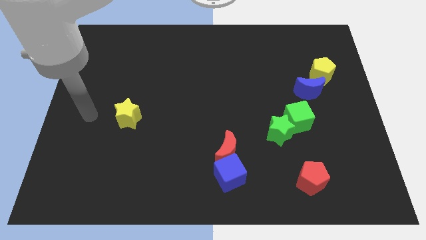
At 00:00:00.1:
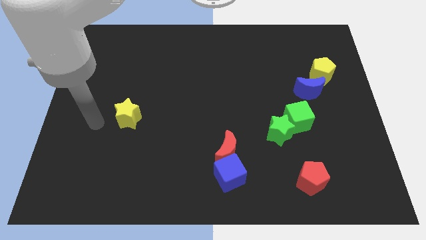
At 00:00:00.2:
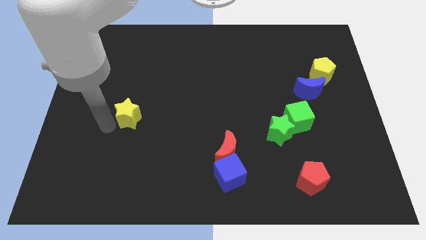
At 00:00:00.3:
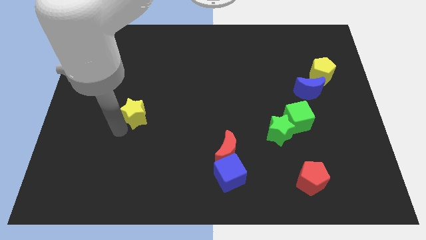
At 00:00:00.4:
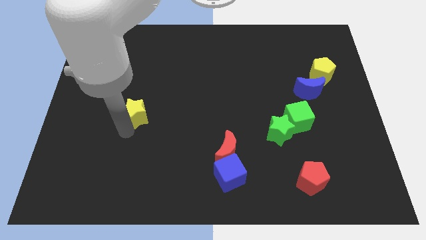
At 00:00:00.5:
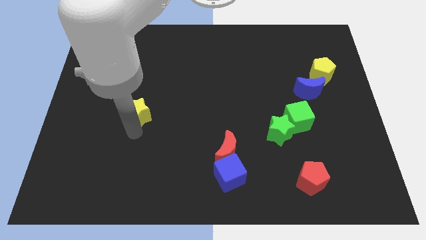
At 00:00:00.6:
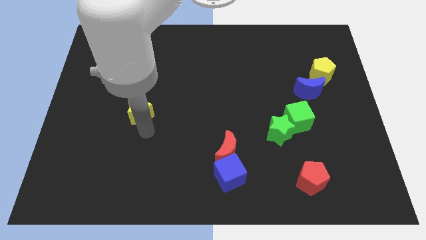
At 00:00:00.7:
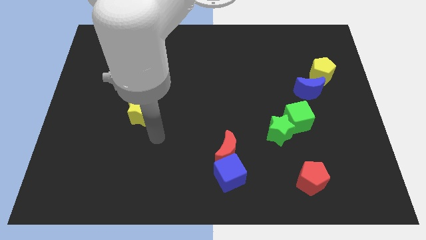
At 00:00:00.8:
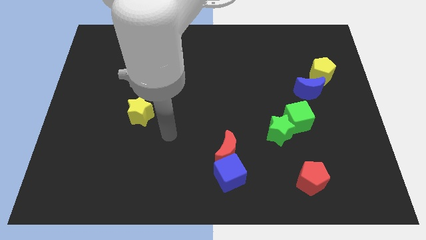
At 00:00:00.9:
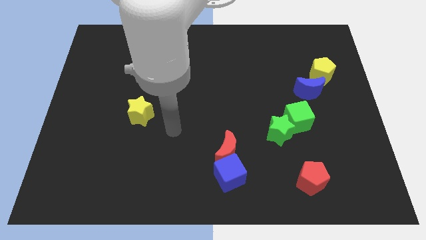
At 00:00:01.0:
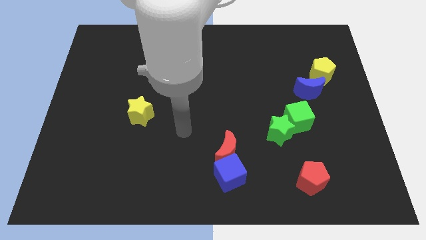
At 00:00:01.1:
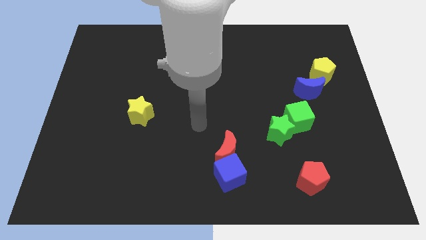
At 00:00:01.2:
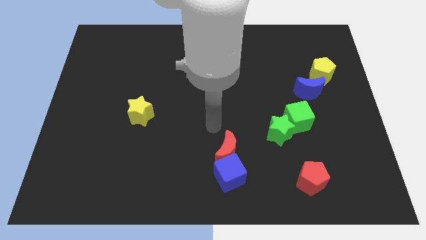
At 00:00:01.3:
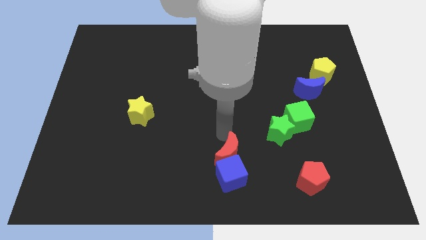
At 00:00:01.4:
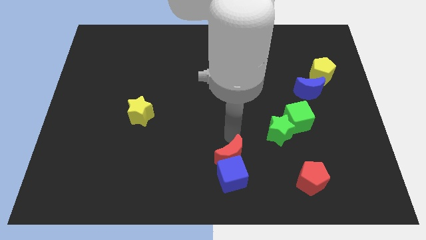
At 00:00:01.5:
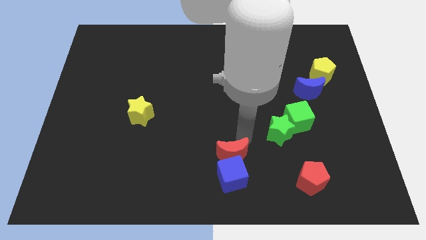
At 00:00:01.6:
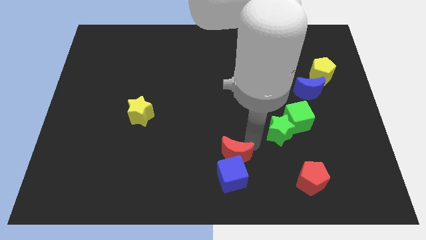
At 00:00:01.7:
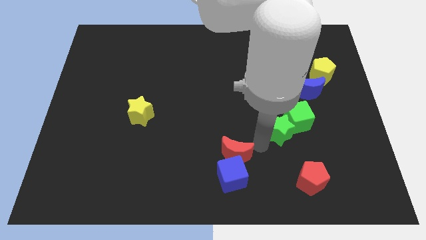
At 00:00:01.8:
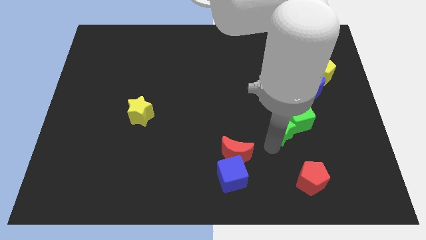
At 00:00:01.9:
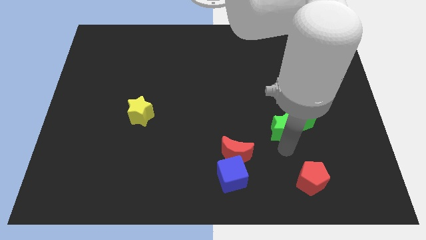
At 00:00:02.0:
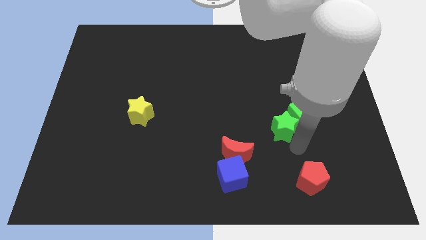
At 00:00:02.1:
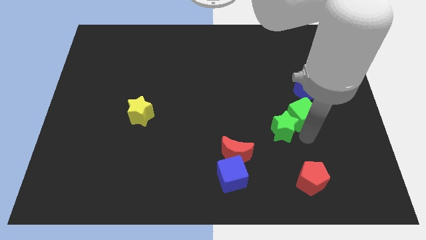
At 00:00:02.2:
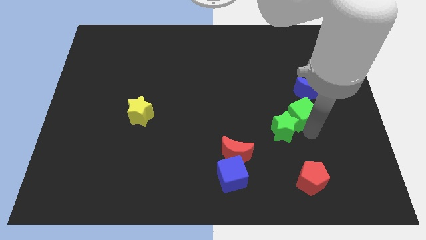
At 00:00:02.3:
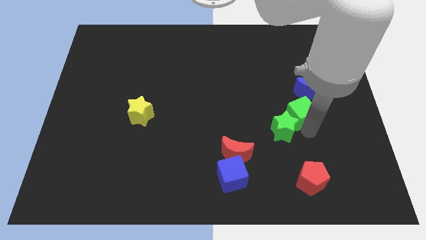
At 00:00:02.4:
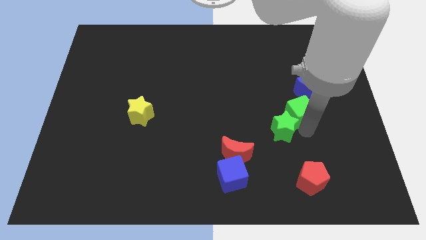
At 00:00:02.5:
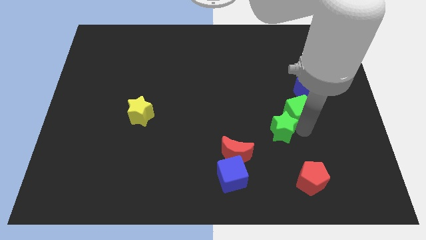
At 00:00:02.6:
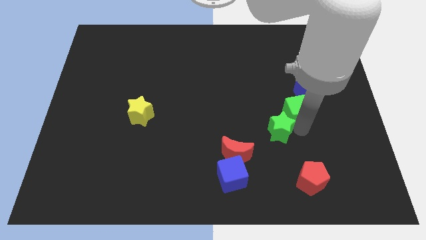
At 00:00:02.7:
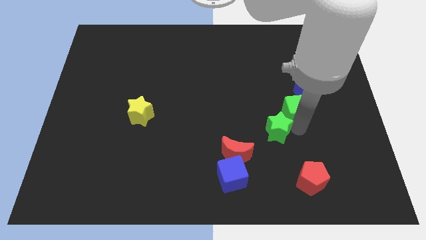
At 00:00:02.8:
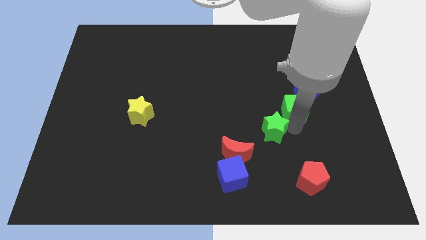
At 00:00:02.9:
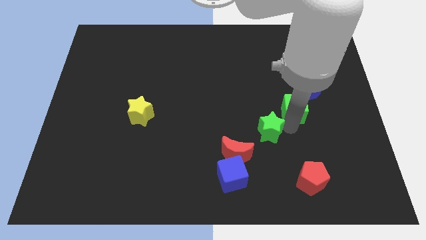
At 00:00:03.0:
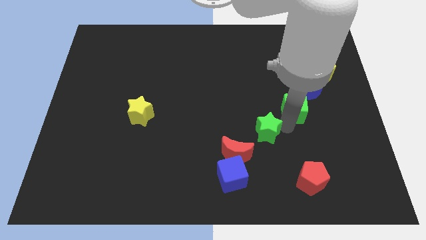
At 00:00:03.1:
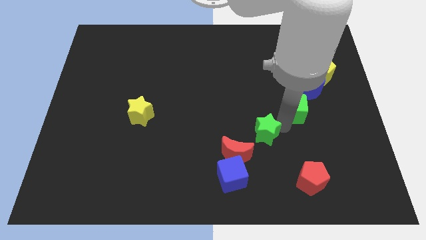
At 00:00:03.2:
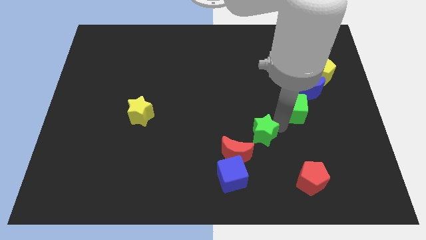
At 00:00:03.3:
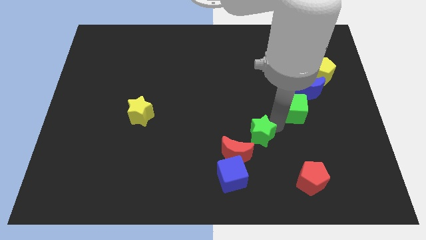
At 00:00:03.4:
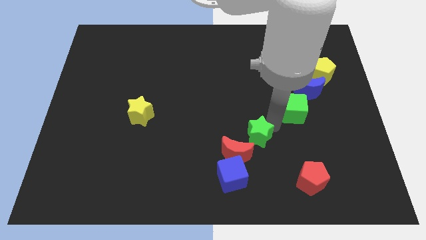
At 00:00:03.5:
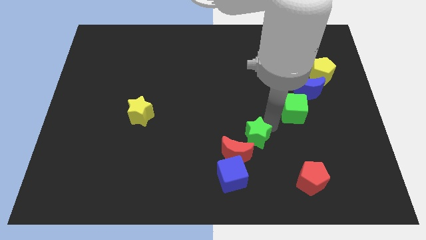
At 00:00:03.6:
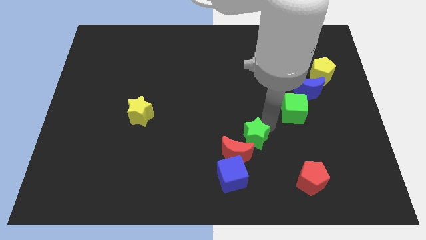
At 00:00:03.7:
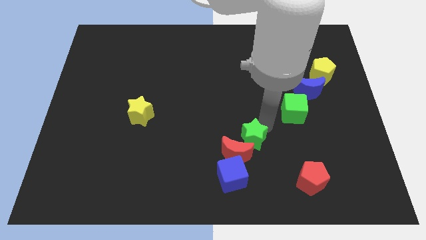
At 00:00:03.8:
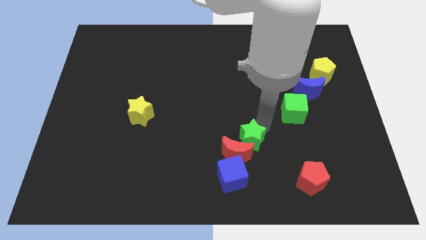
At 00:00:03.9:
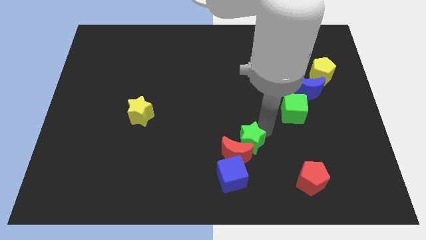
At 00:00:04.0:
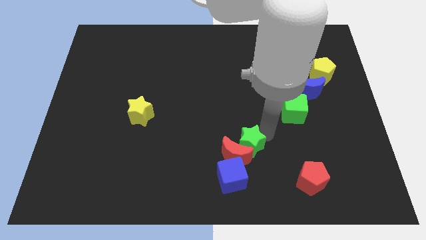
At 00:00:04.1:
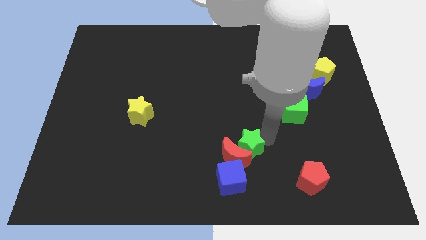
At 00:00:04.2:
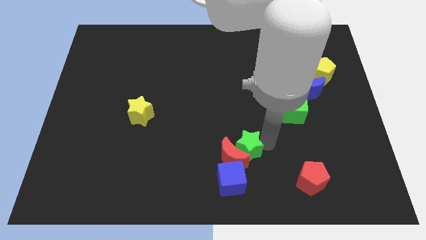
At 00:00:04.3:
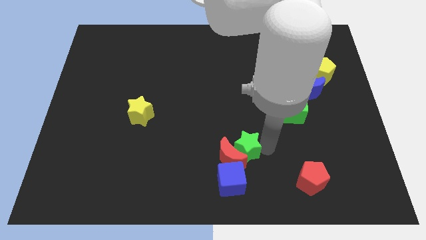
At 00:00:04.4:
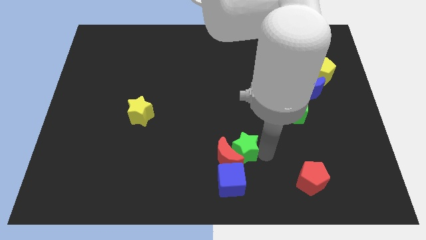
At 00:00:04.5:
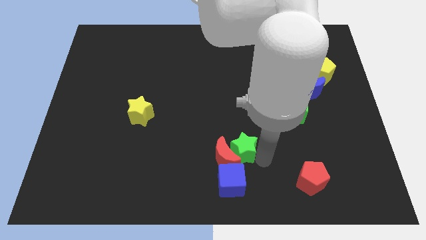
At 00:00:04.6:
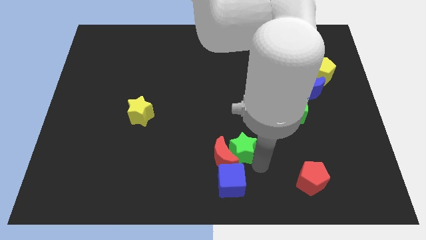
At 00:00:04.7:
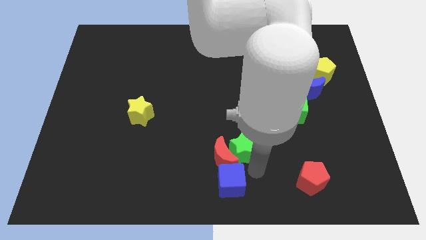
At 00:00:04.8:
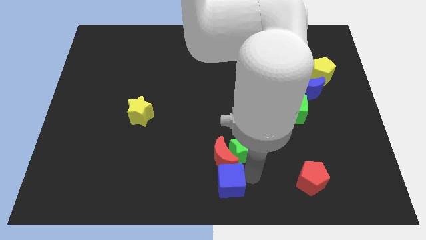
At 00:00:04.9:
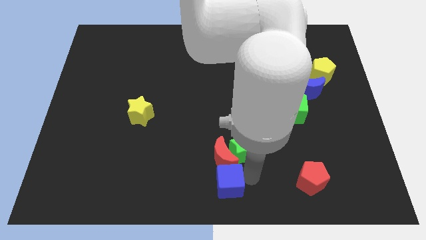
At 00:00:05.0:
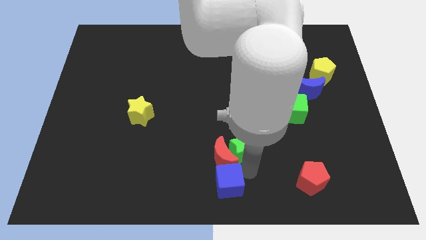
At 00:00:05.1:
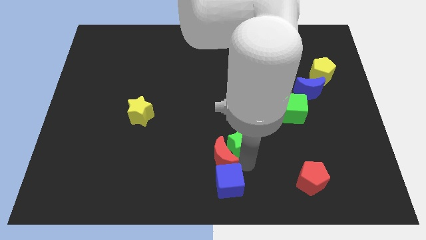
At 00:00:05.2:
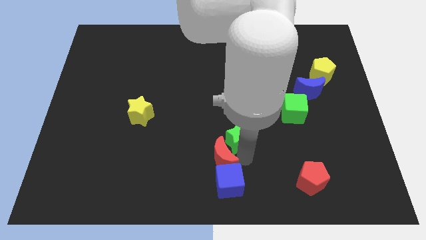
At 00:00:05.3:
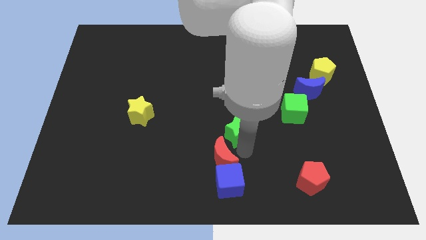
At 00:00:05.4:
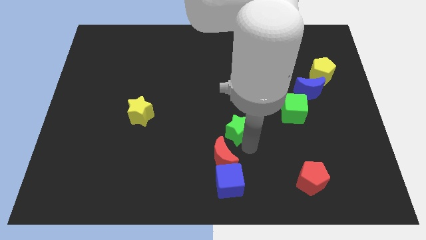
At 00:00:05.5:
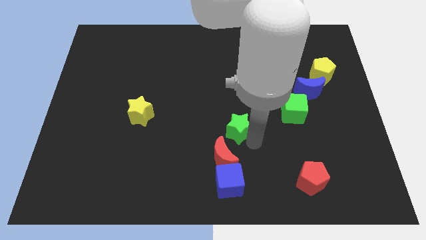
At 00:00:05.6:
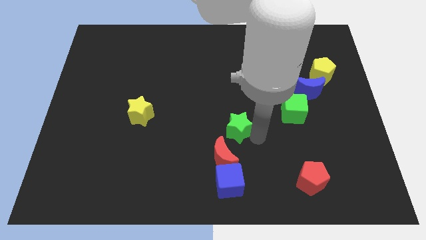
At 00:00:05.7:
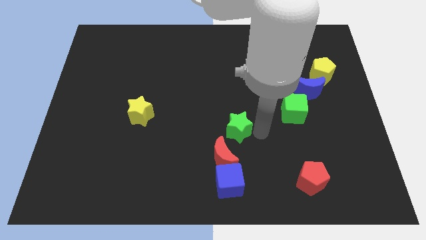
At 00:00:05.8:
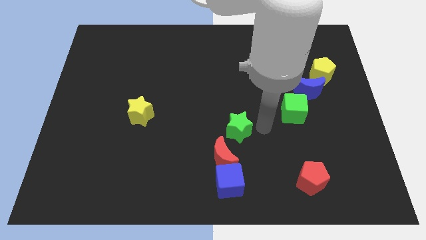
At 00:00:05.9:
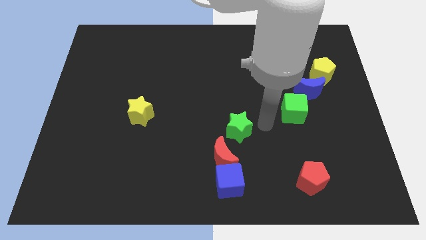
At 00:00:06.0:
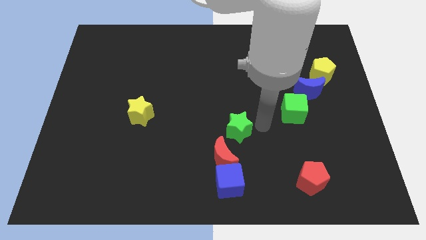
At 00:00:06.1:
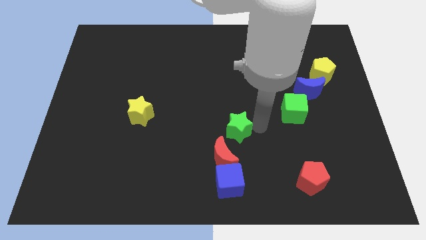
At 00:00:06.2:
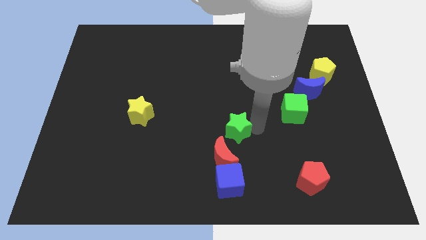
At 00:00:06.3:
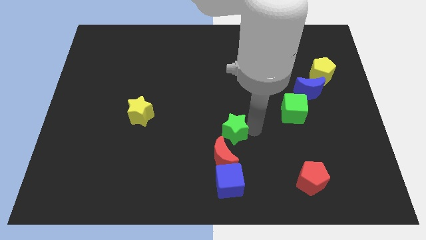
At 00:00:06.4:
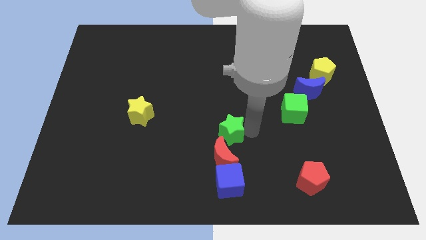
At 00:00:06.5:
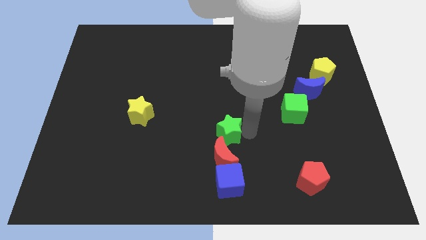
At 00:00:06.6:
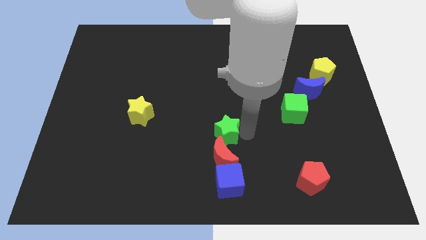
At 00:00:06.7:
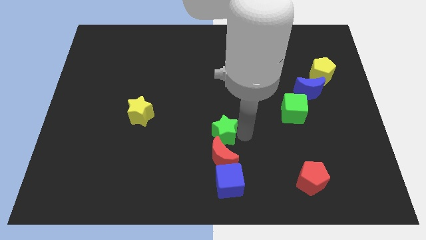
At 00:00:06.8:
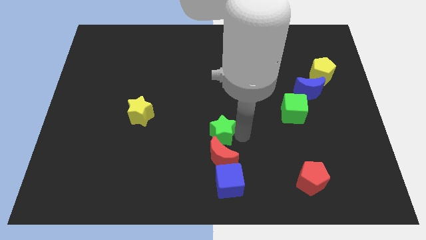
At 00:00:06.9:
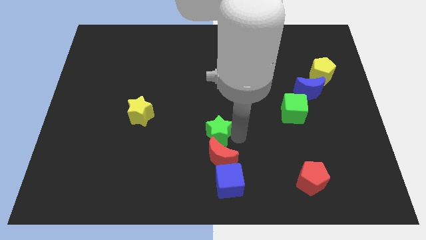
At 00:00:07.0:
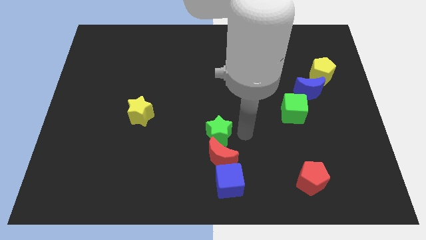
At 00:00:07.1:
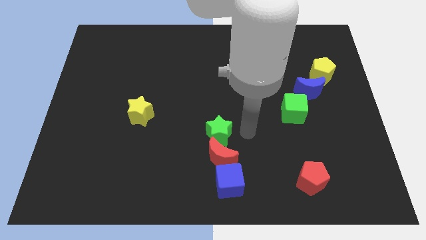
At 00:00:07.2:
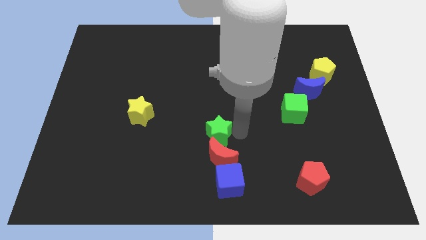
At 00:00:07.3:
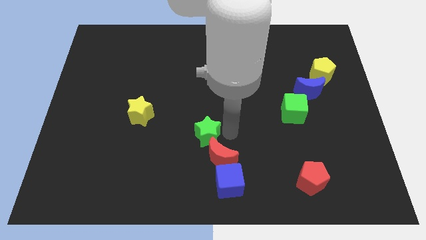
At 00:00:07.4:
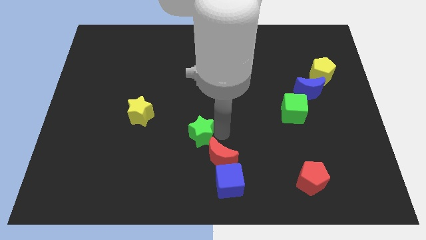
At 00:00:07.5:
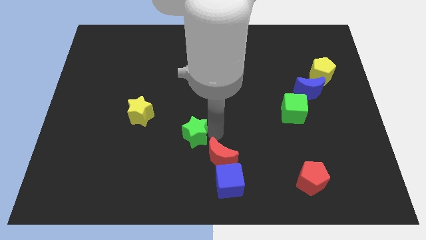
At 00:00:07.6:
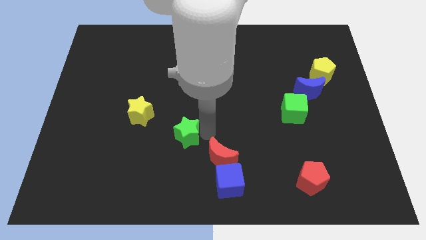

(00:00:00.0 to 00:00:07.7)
push the green star left

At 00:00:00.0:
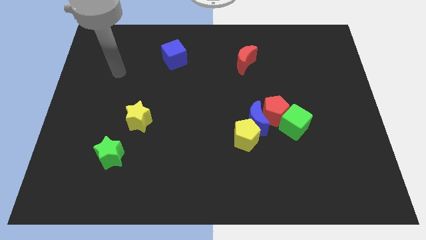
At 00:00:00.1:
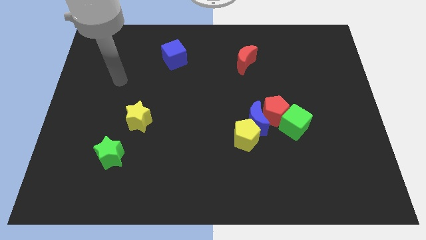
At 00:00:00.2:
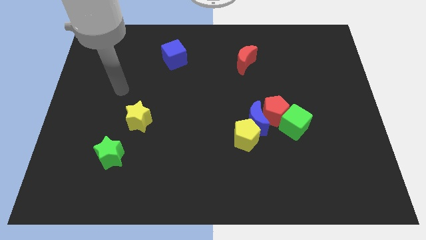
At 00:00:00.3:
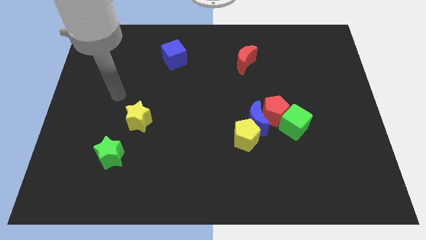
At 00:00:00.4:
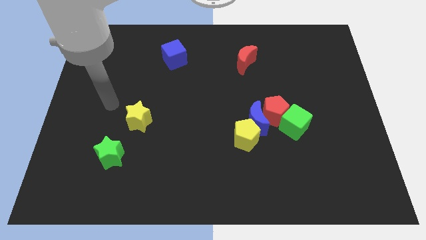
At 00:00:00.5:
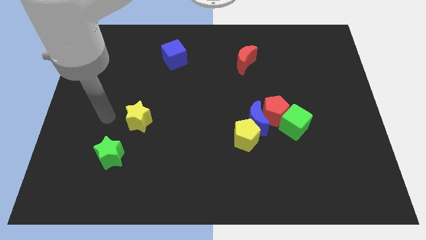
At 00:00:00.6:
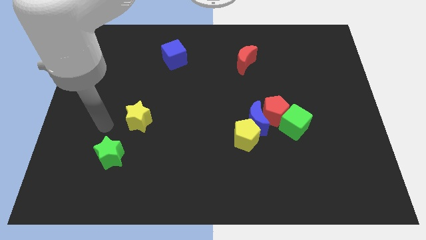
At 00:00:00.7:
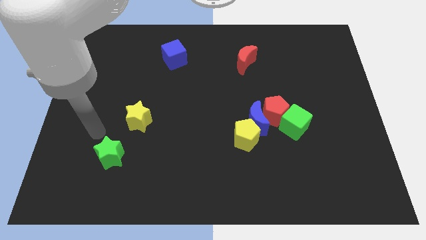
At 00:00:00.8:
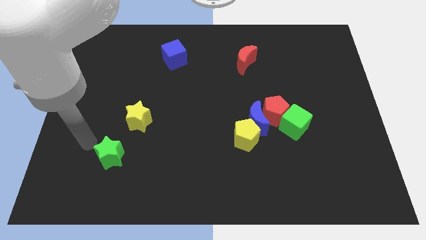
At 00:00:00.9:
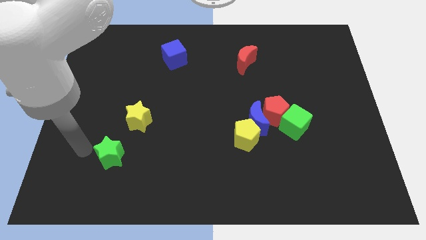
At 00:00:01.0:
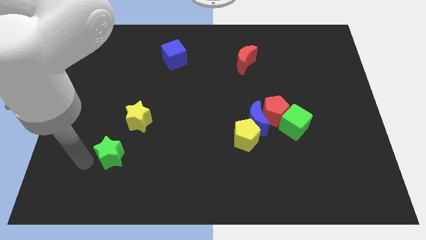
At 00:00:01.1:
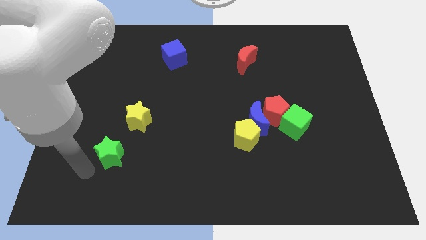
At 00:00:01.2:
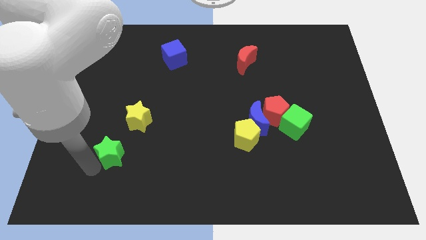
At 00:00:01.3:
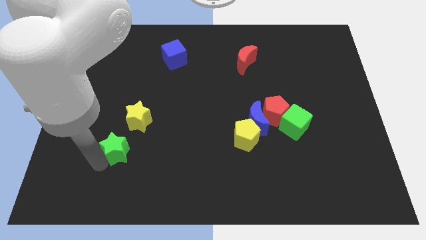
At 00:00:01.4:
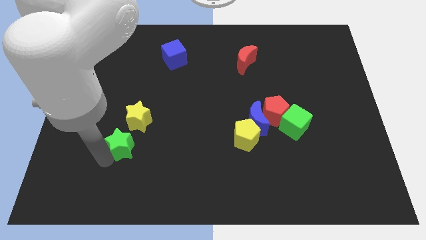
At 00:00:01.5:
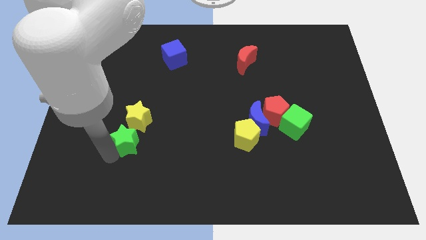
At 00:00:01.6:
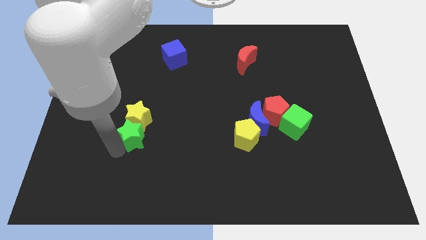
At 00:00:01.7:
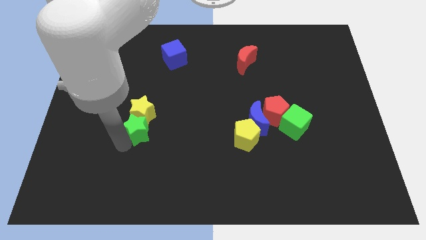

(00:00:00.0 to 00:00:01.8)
push the green star a little bit upwards and then right
